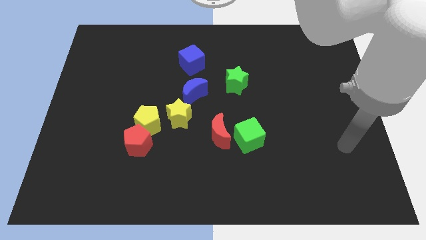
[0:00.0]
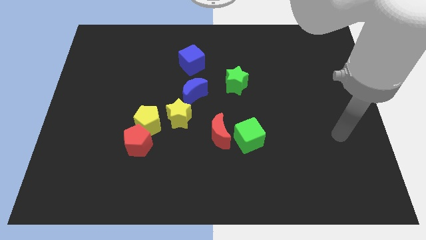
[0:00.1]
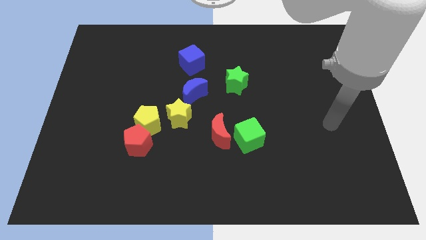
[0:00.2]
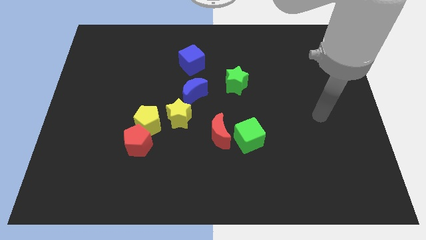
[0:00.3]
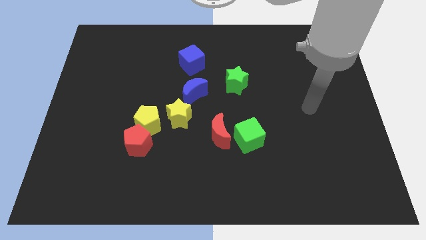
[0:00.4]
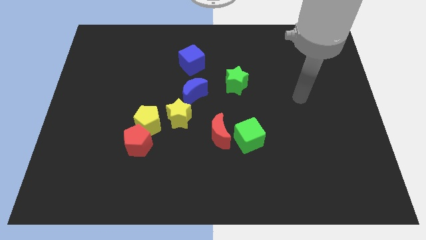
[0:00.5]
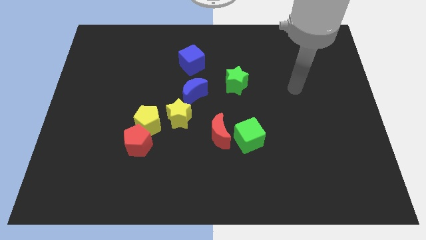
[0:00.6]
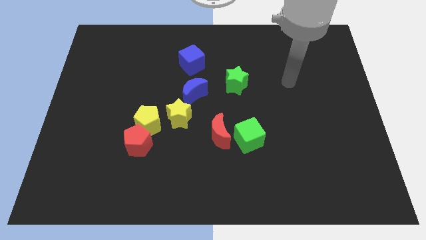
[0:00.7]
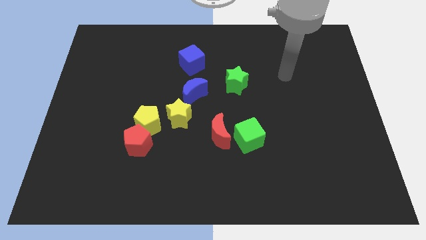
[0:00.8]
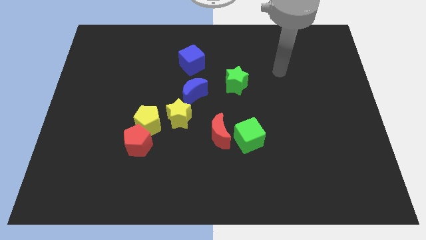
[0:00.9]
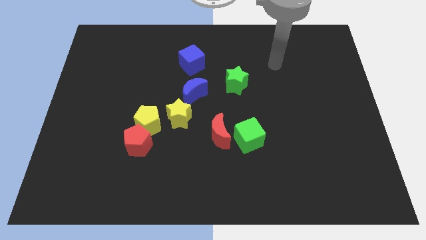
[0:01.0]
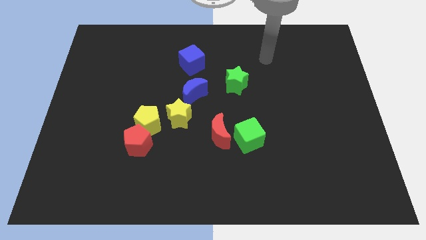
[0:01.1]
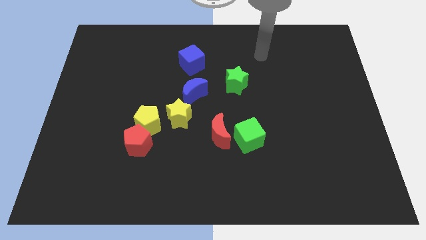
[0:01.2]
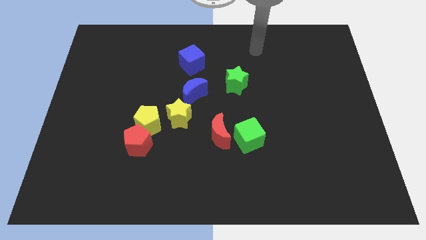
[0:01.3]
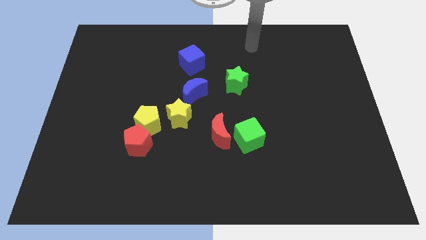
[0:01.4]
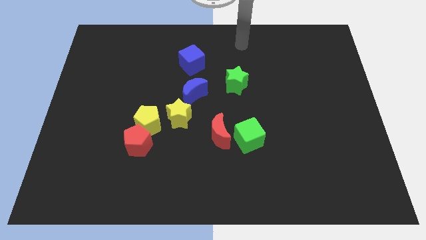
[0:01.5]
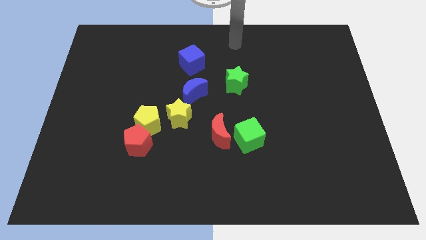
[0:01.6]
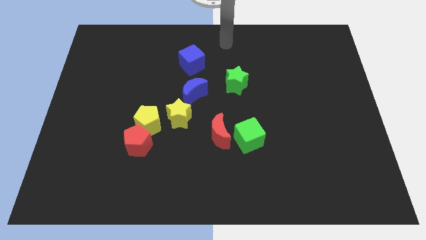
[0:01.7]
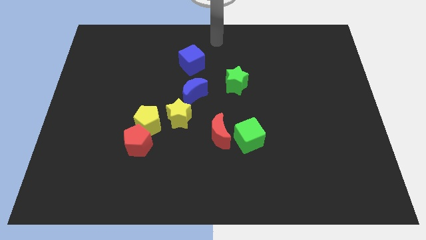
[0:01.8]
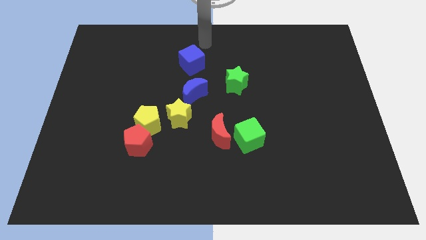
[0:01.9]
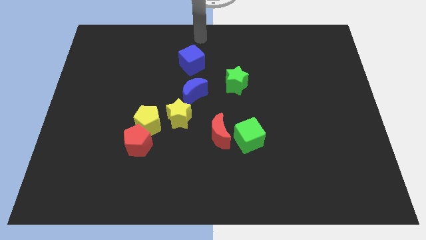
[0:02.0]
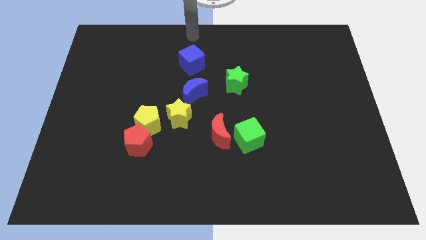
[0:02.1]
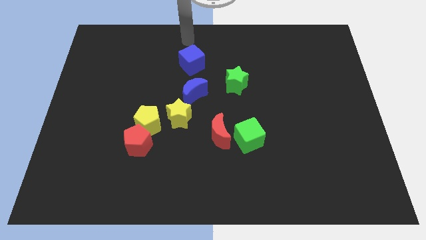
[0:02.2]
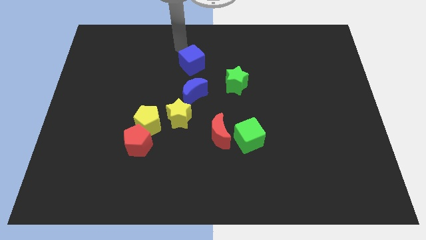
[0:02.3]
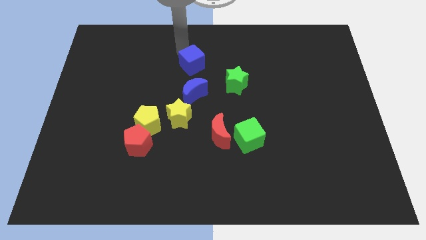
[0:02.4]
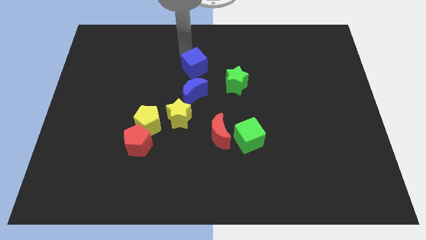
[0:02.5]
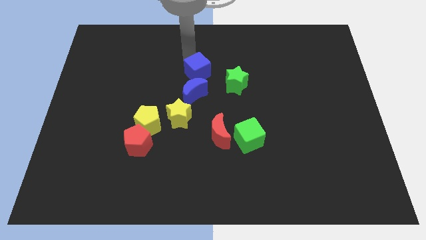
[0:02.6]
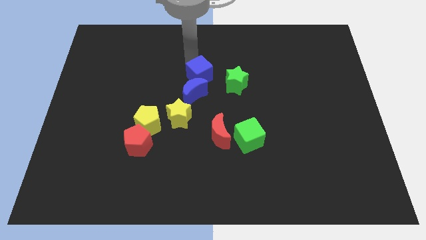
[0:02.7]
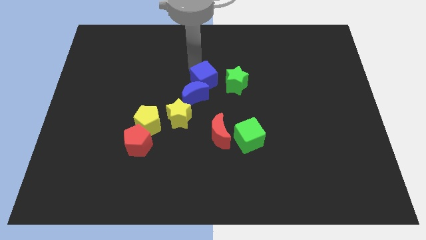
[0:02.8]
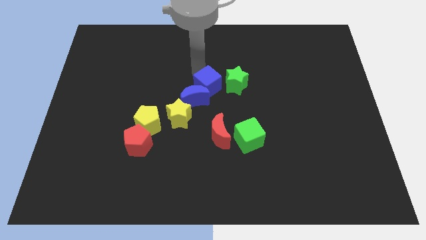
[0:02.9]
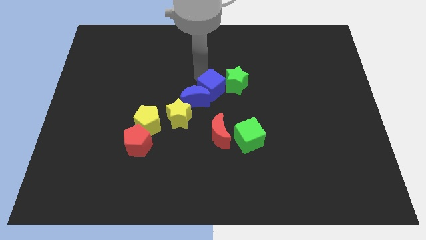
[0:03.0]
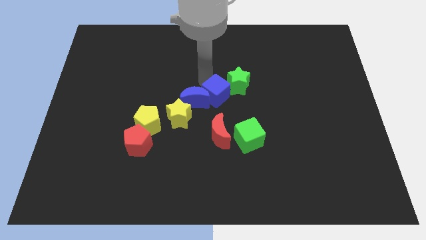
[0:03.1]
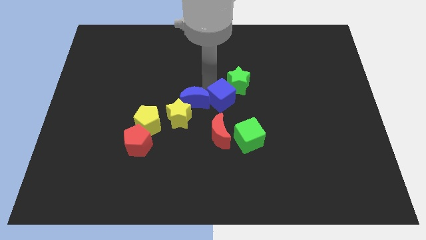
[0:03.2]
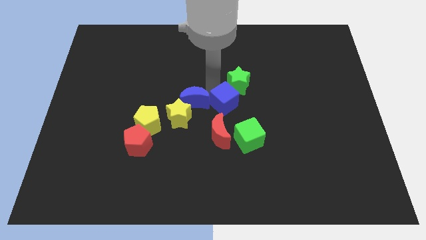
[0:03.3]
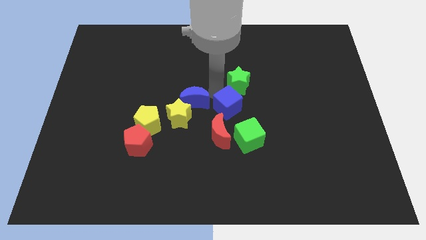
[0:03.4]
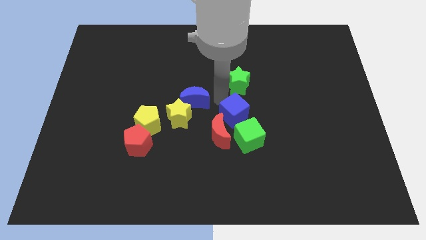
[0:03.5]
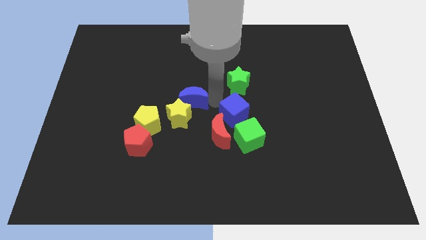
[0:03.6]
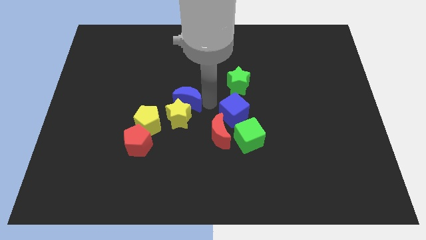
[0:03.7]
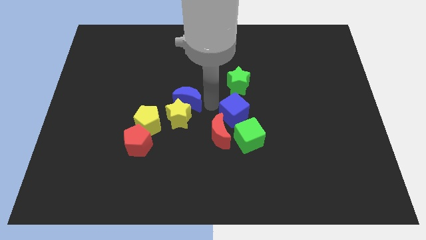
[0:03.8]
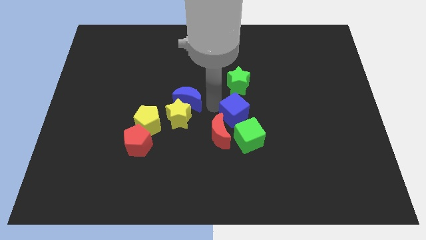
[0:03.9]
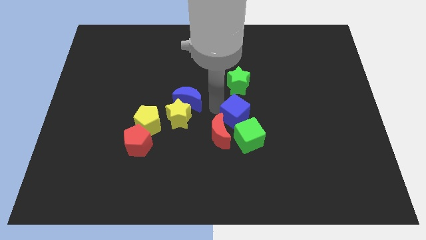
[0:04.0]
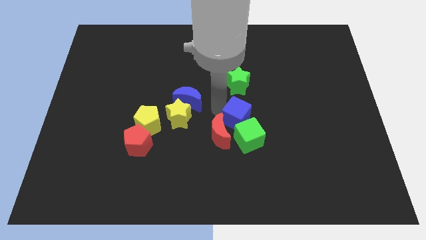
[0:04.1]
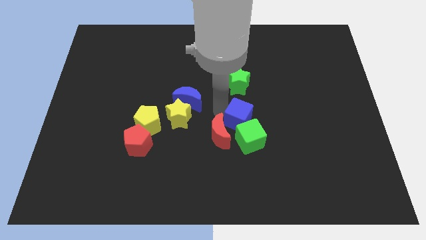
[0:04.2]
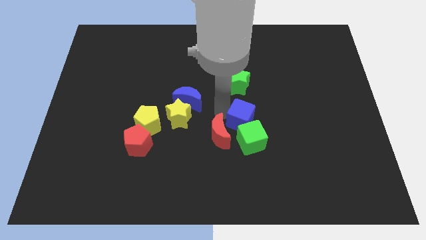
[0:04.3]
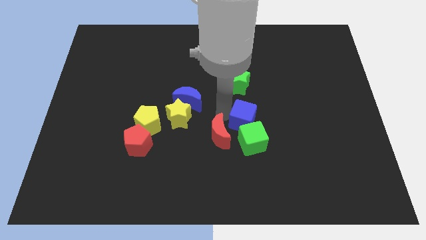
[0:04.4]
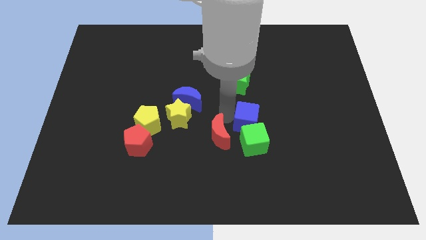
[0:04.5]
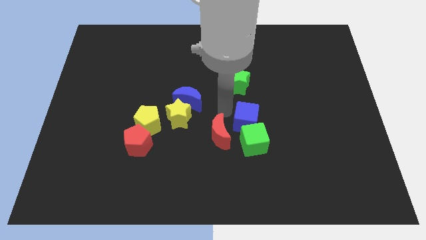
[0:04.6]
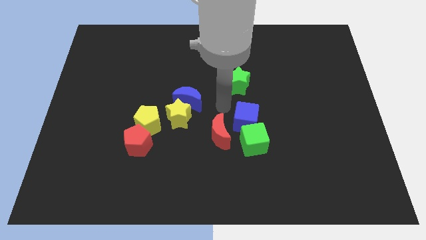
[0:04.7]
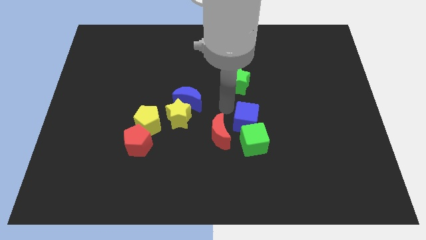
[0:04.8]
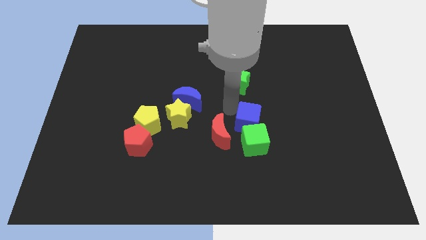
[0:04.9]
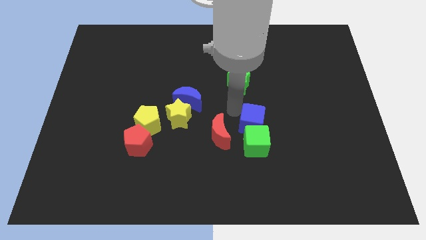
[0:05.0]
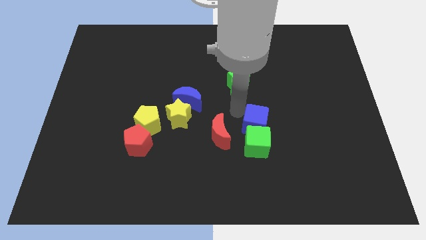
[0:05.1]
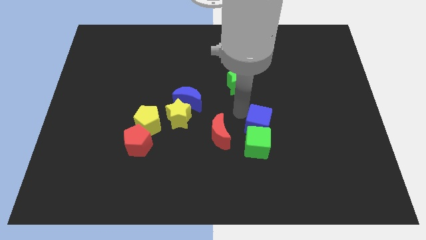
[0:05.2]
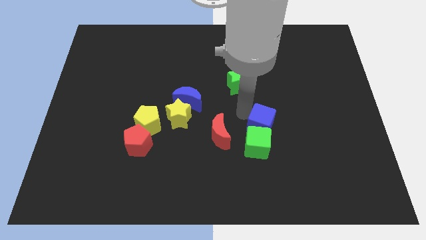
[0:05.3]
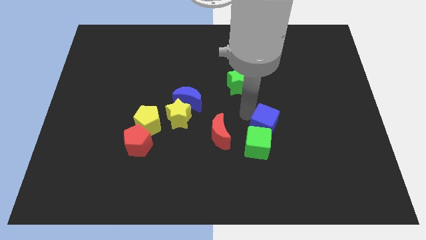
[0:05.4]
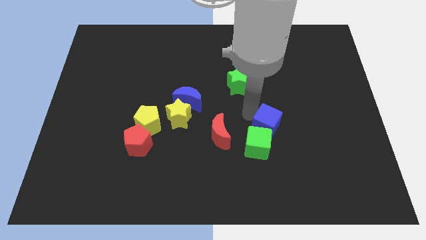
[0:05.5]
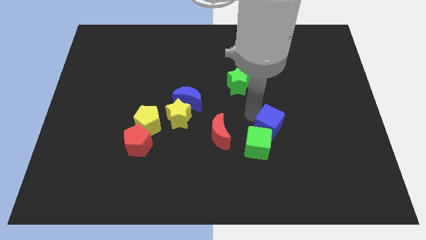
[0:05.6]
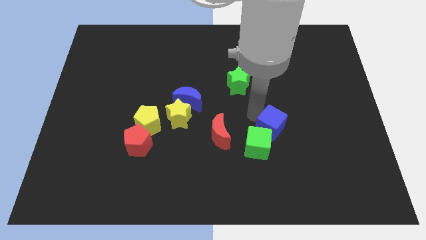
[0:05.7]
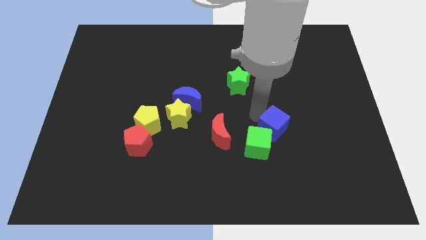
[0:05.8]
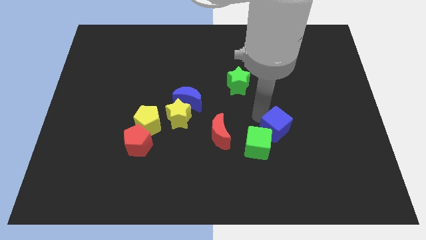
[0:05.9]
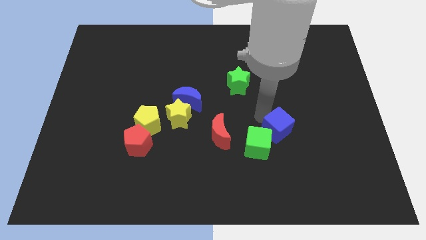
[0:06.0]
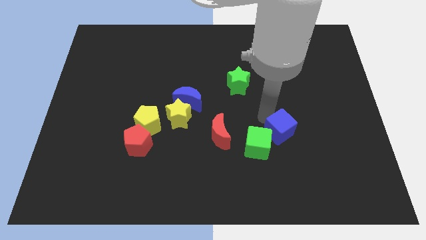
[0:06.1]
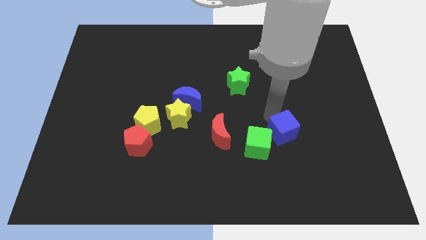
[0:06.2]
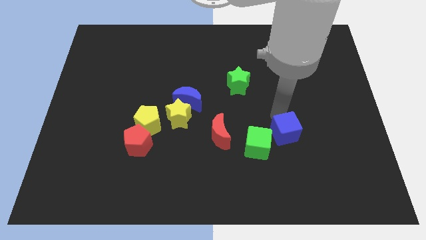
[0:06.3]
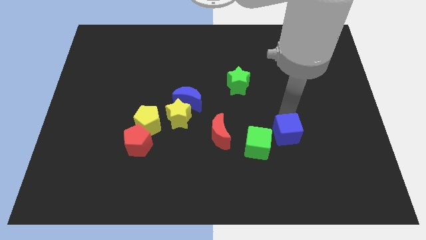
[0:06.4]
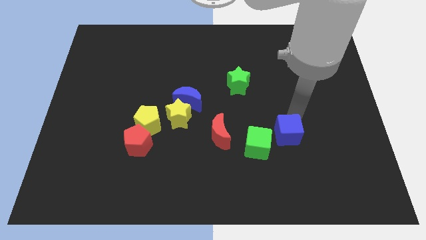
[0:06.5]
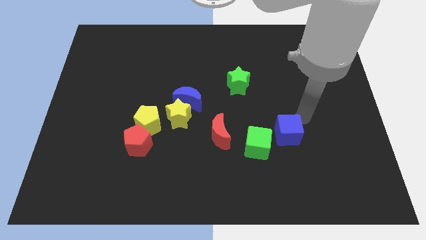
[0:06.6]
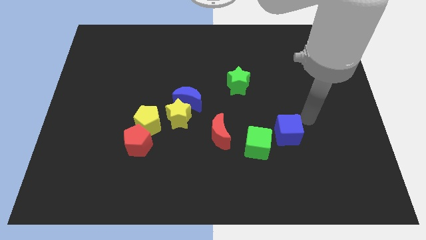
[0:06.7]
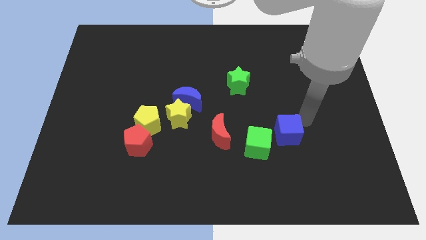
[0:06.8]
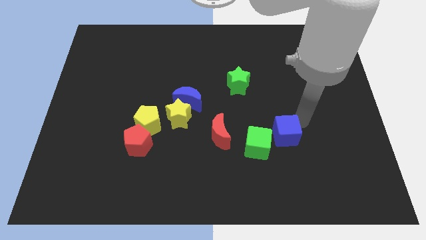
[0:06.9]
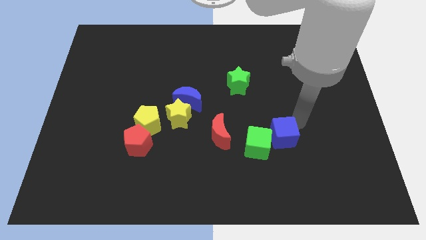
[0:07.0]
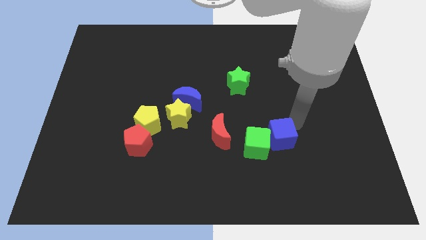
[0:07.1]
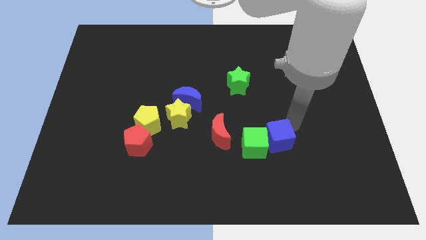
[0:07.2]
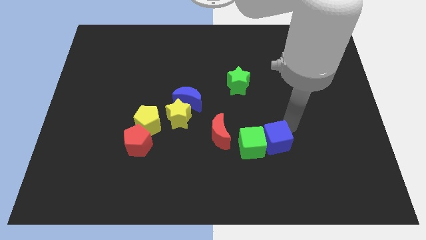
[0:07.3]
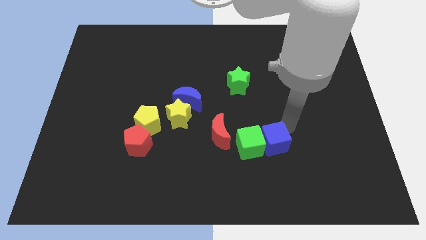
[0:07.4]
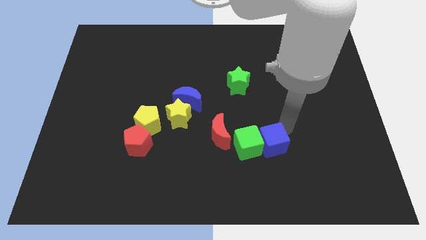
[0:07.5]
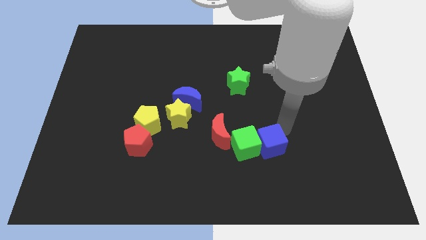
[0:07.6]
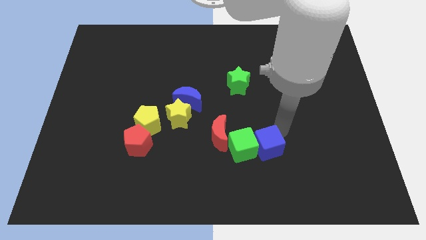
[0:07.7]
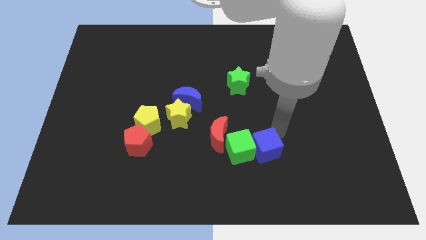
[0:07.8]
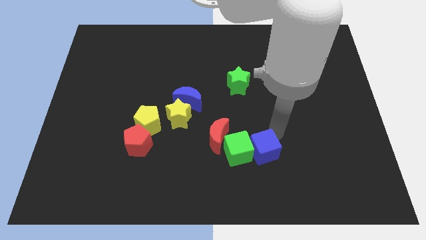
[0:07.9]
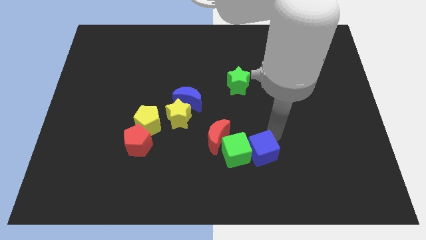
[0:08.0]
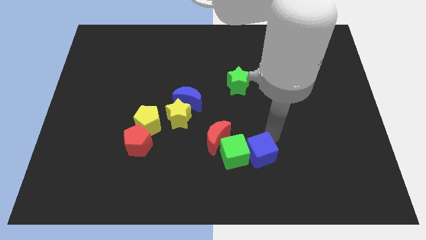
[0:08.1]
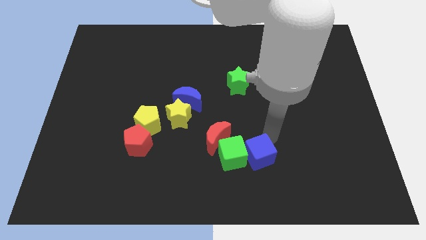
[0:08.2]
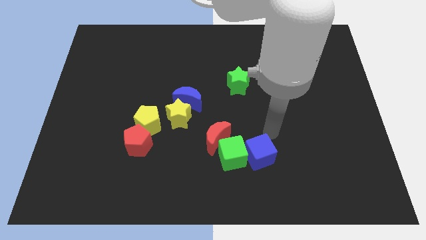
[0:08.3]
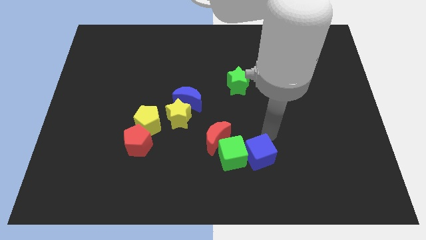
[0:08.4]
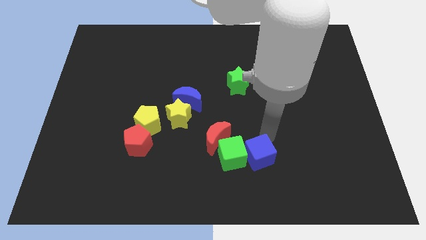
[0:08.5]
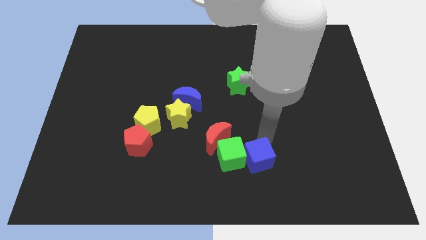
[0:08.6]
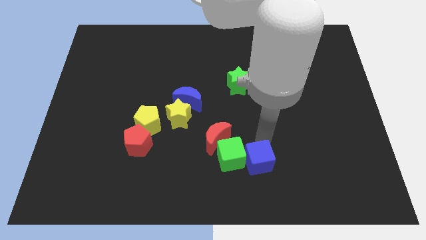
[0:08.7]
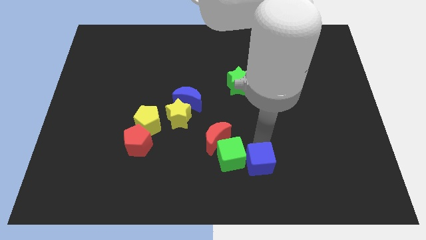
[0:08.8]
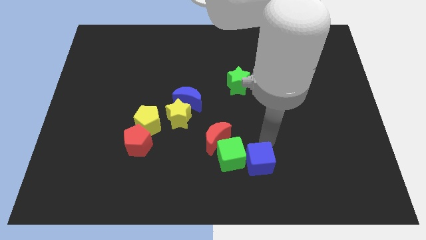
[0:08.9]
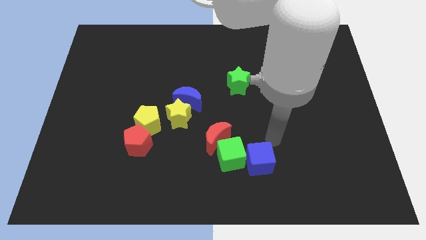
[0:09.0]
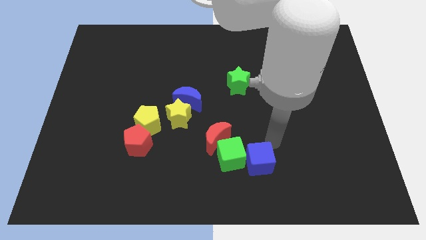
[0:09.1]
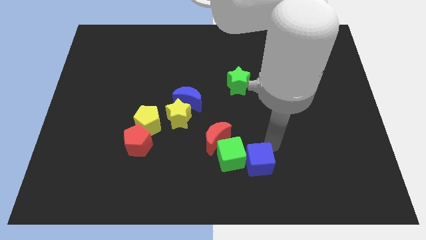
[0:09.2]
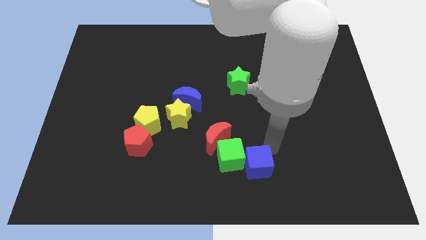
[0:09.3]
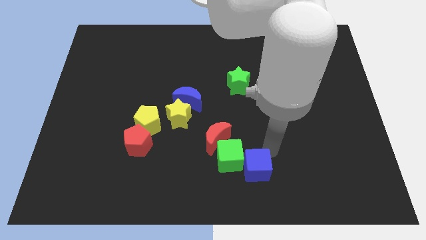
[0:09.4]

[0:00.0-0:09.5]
put the blue cube to the bottom
